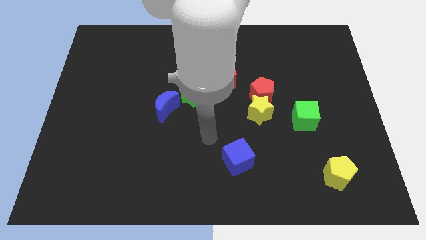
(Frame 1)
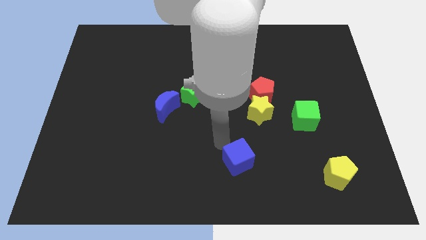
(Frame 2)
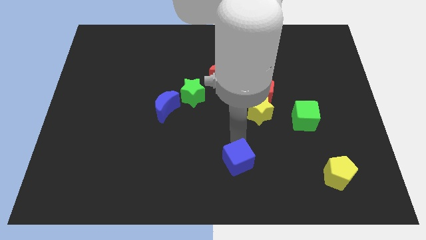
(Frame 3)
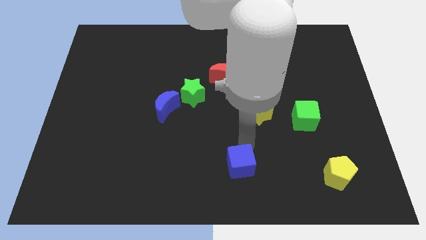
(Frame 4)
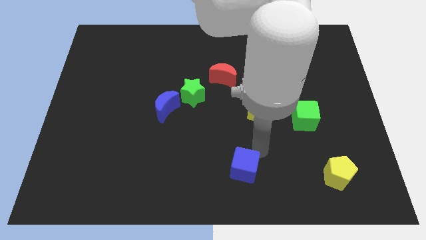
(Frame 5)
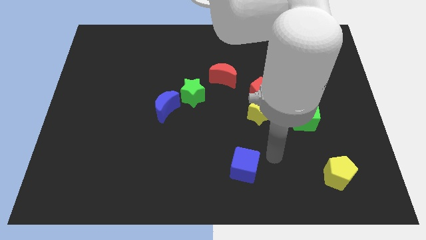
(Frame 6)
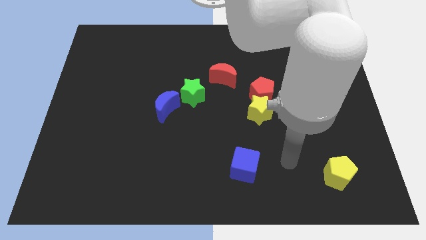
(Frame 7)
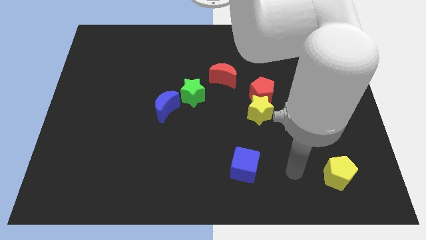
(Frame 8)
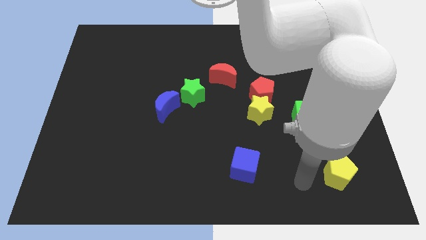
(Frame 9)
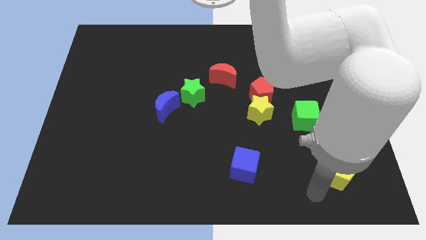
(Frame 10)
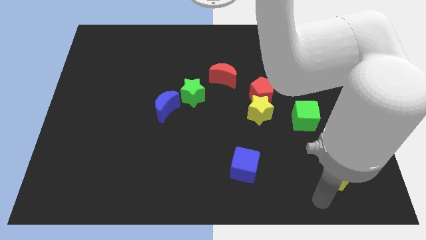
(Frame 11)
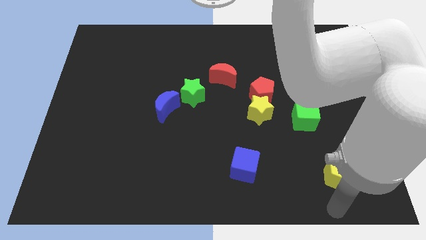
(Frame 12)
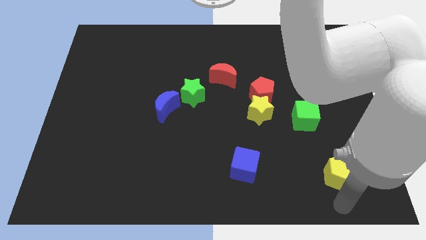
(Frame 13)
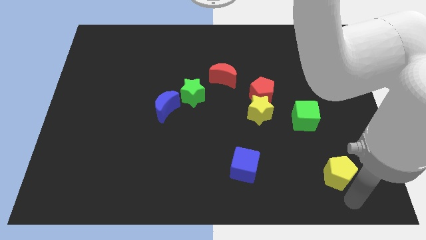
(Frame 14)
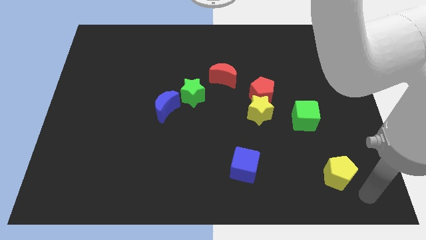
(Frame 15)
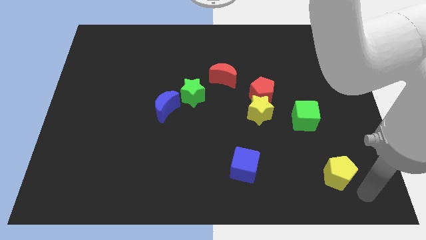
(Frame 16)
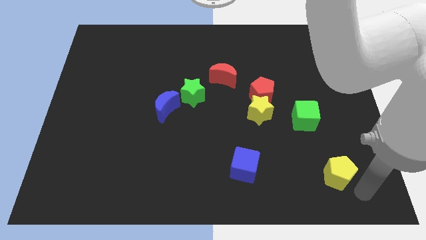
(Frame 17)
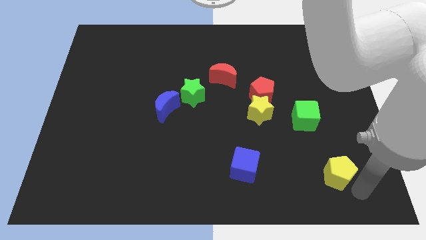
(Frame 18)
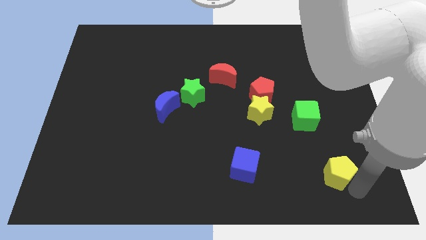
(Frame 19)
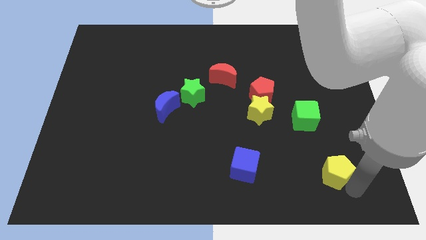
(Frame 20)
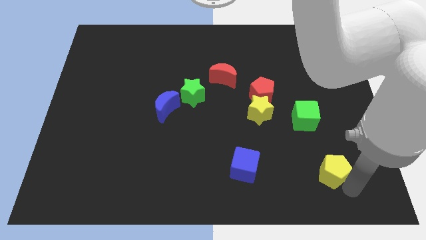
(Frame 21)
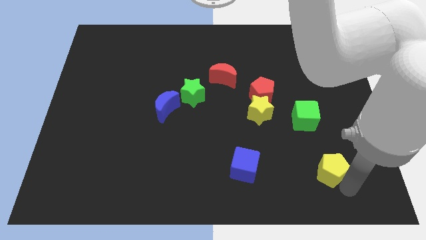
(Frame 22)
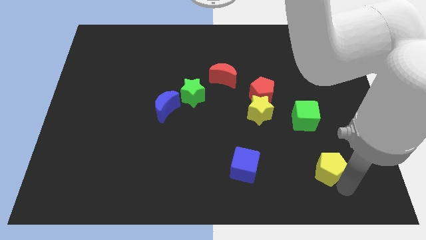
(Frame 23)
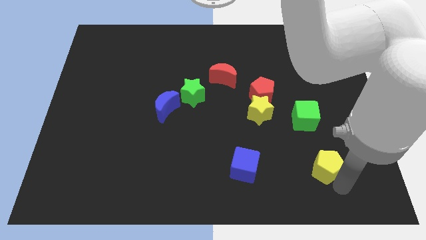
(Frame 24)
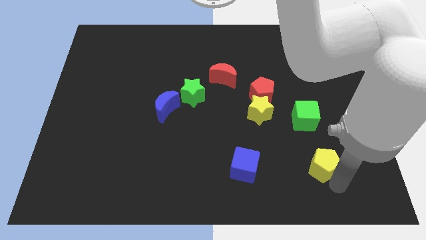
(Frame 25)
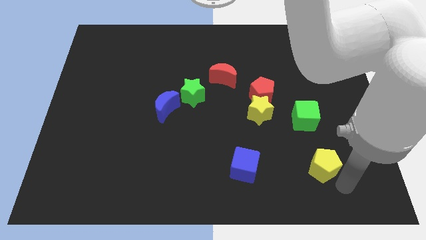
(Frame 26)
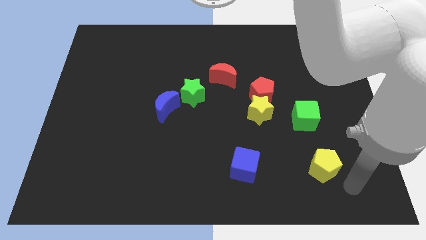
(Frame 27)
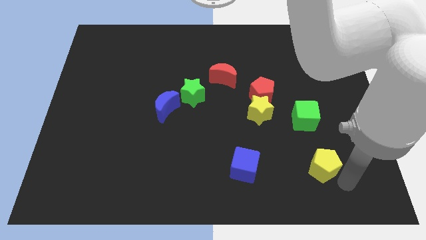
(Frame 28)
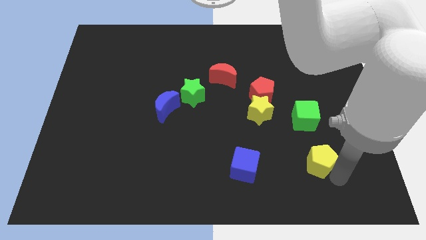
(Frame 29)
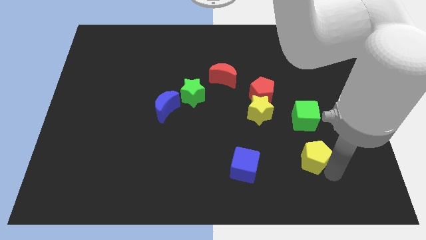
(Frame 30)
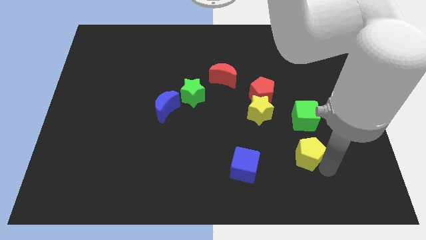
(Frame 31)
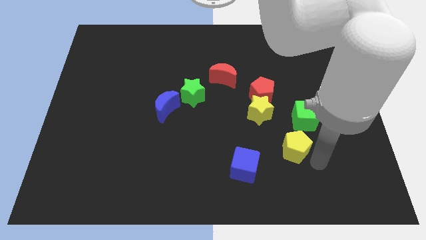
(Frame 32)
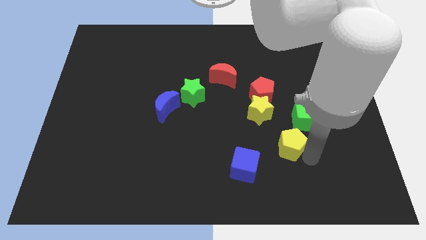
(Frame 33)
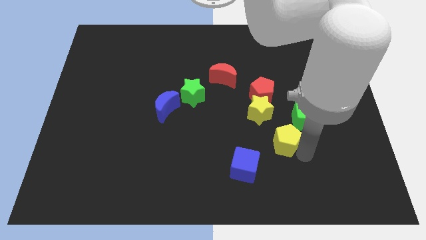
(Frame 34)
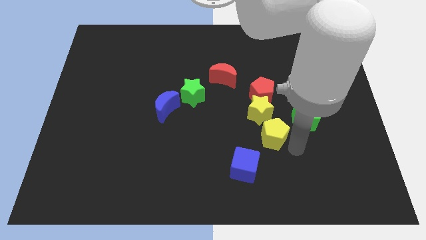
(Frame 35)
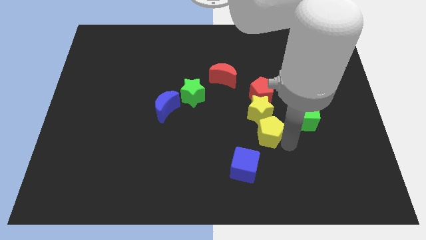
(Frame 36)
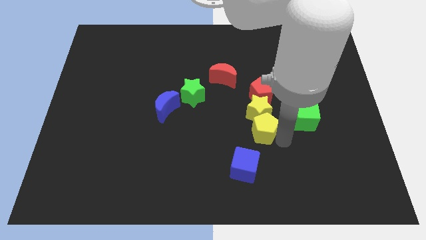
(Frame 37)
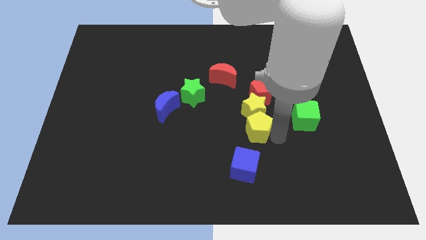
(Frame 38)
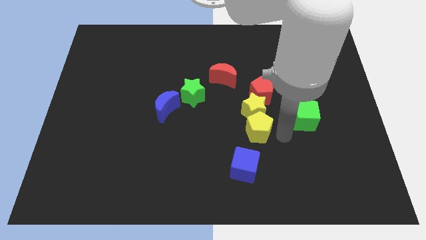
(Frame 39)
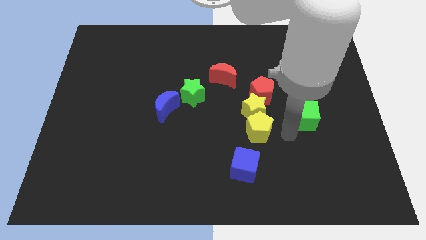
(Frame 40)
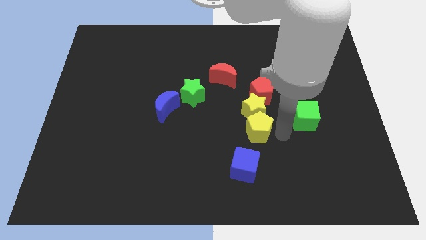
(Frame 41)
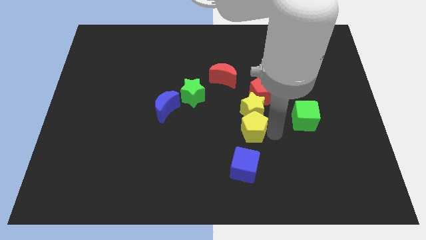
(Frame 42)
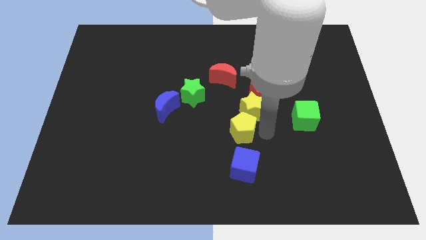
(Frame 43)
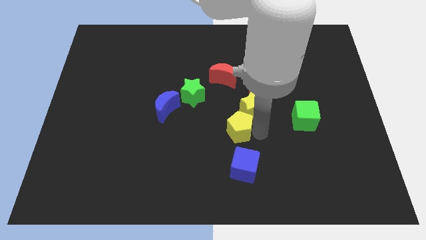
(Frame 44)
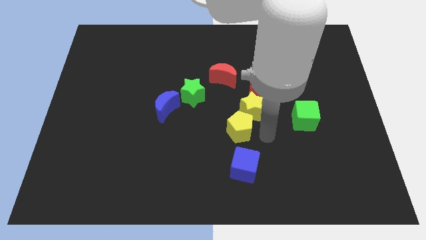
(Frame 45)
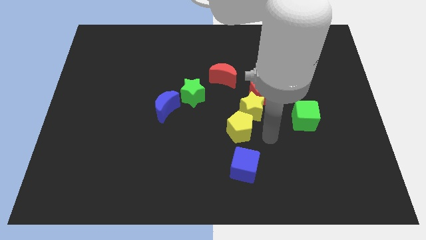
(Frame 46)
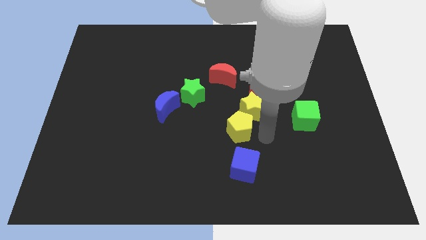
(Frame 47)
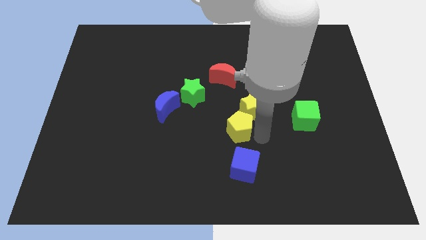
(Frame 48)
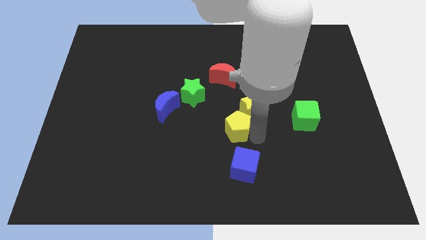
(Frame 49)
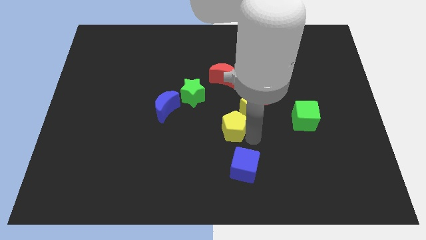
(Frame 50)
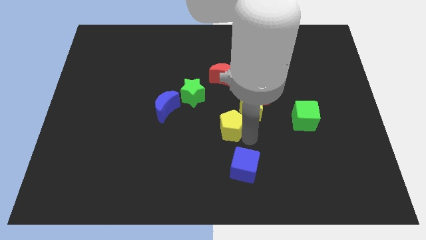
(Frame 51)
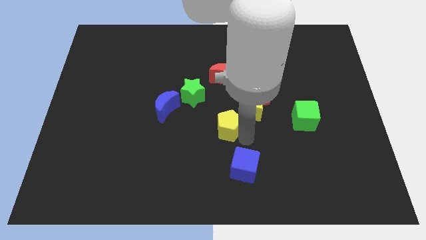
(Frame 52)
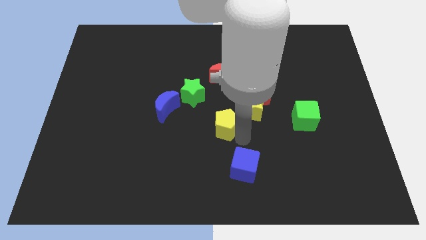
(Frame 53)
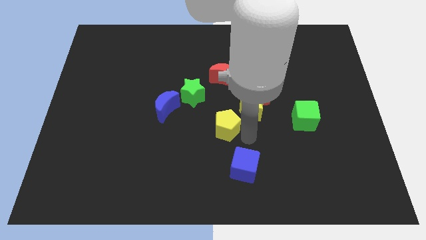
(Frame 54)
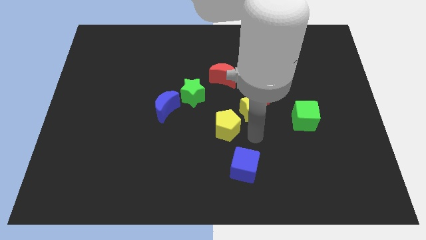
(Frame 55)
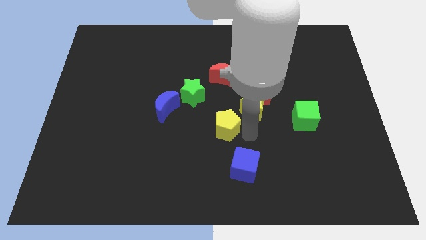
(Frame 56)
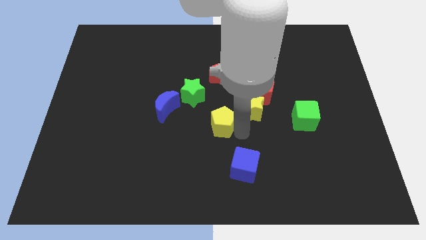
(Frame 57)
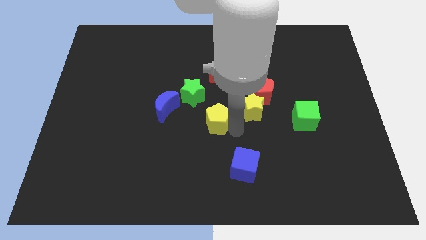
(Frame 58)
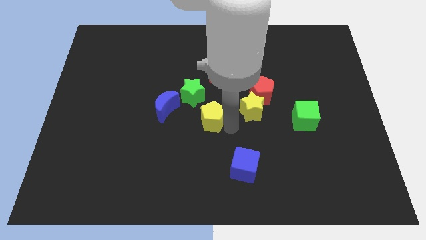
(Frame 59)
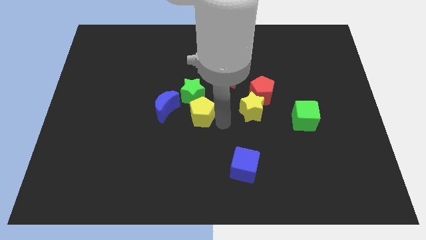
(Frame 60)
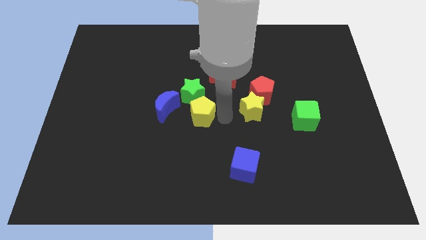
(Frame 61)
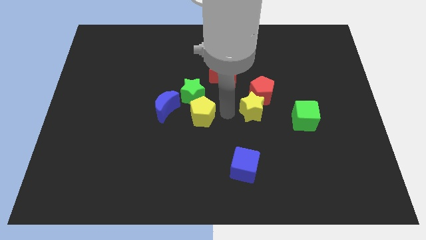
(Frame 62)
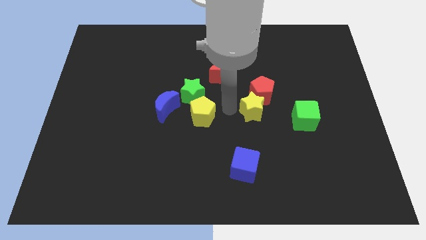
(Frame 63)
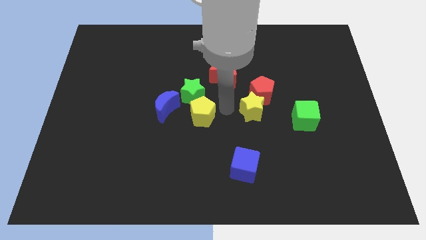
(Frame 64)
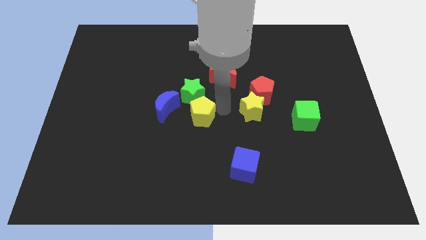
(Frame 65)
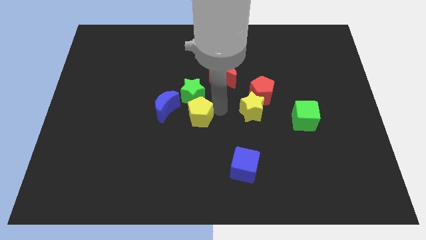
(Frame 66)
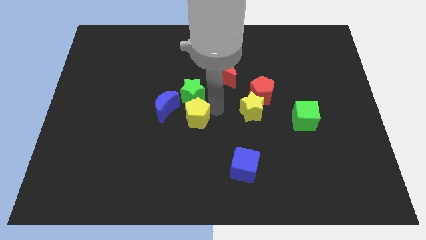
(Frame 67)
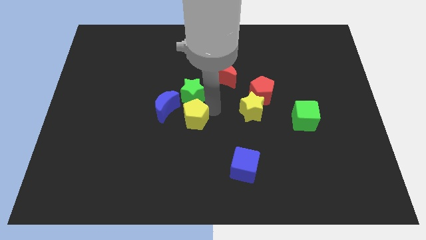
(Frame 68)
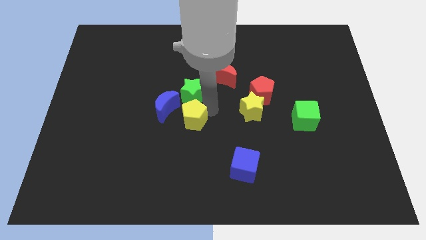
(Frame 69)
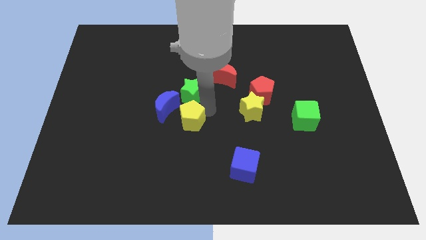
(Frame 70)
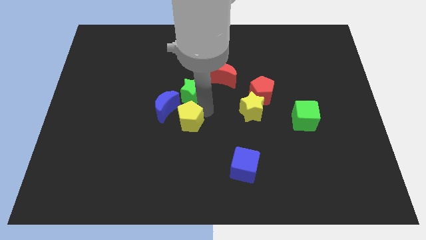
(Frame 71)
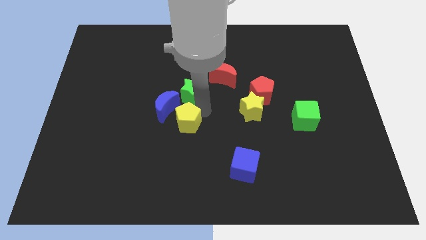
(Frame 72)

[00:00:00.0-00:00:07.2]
put the yellow pentagon to the bottom left side of the green star
